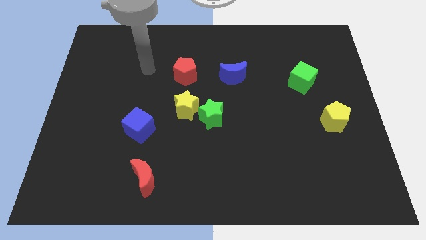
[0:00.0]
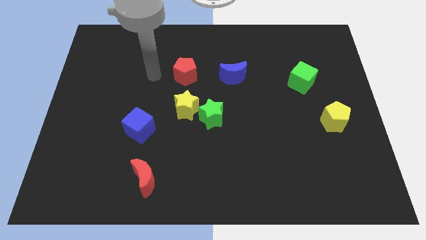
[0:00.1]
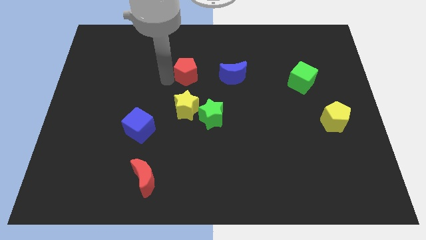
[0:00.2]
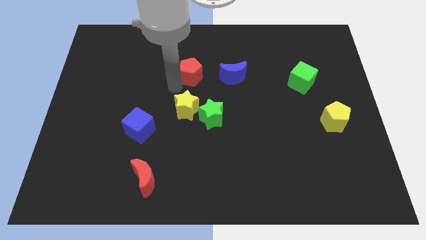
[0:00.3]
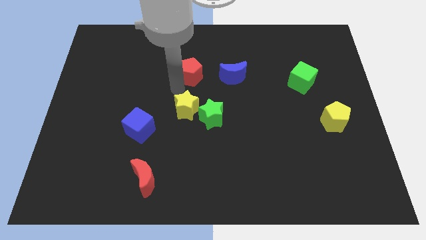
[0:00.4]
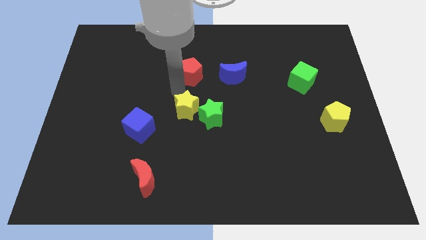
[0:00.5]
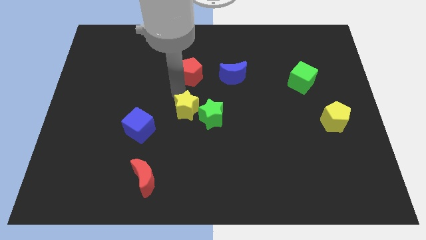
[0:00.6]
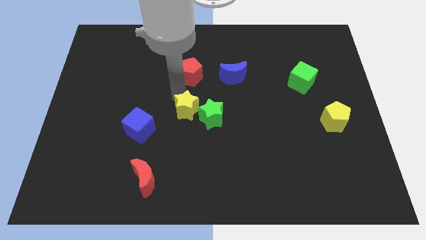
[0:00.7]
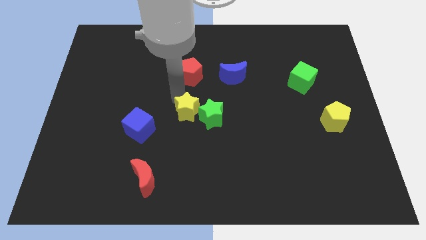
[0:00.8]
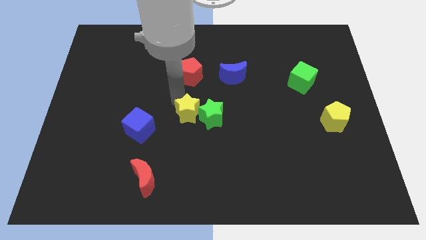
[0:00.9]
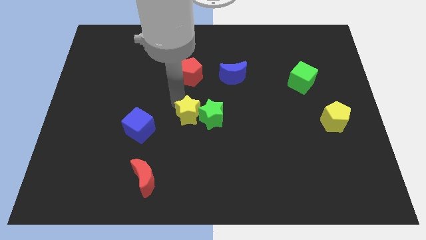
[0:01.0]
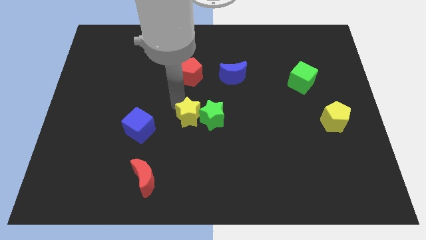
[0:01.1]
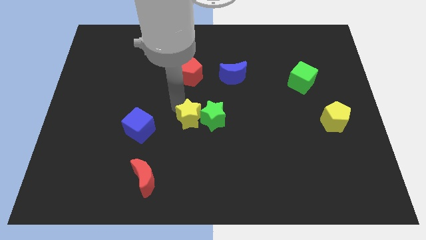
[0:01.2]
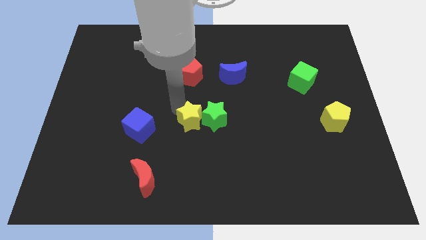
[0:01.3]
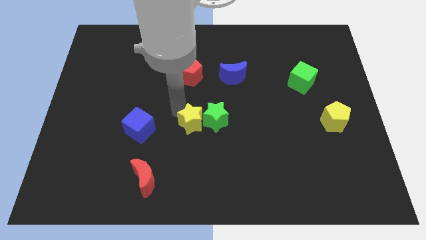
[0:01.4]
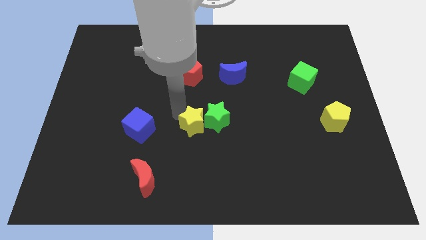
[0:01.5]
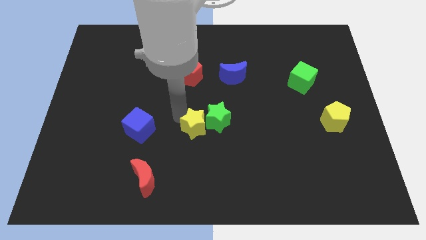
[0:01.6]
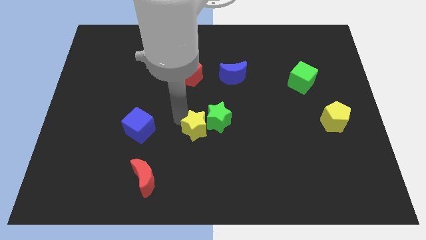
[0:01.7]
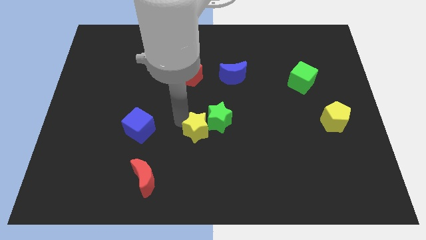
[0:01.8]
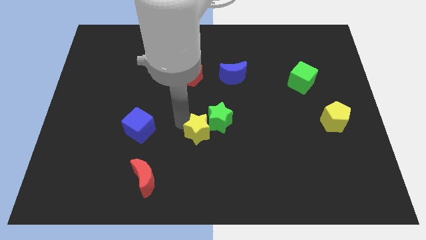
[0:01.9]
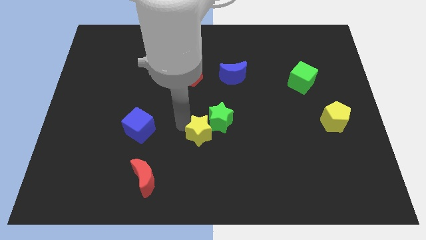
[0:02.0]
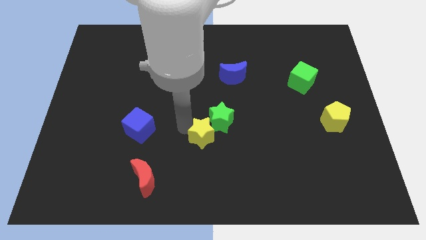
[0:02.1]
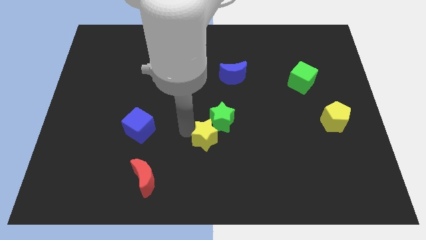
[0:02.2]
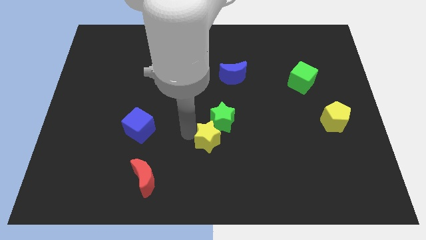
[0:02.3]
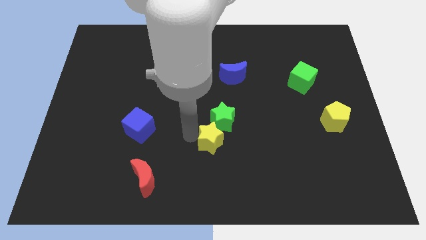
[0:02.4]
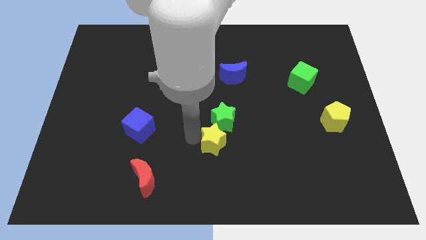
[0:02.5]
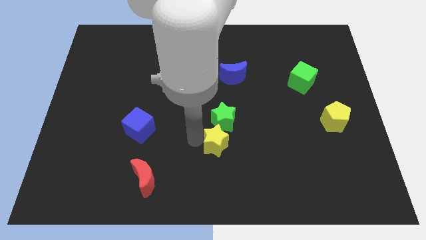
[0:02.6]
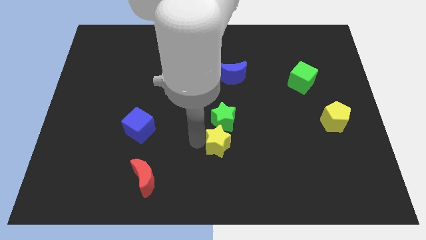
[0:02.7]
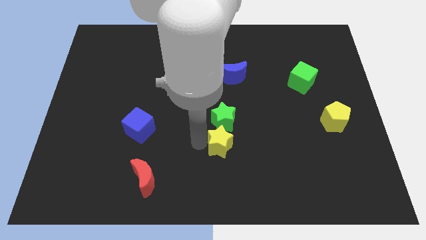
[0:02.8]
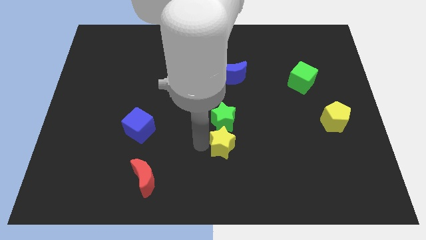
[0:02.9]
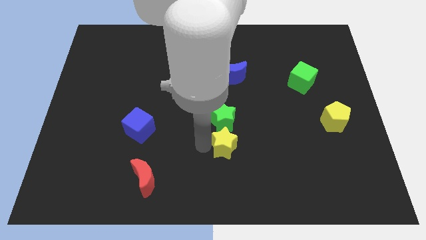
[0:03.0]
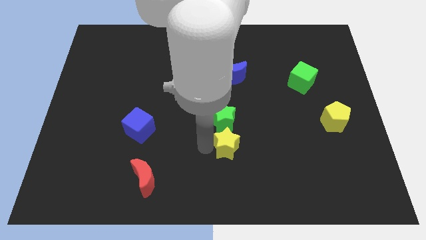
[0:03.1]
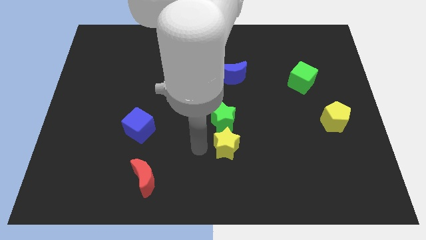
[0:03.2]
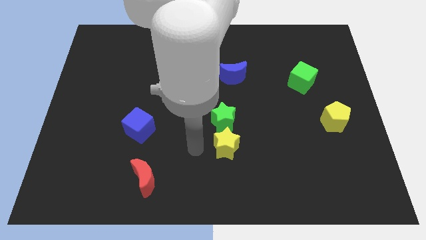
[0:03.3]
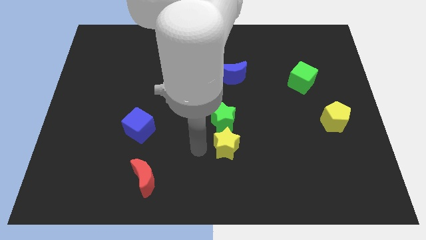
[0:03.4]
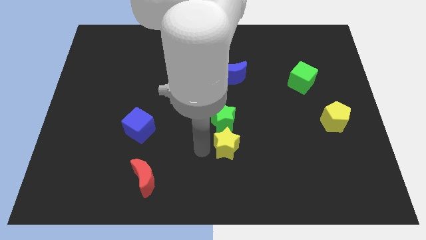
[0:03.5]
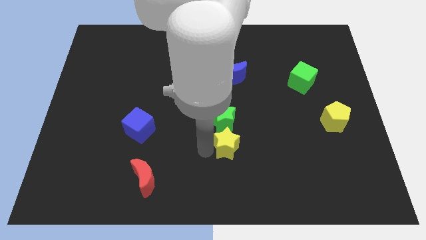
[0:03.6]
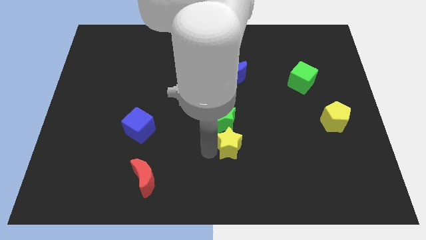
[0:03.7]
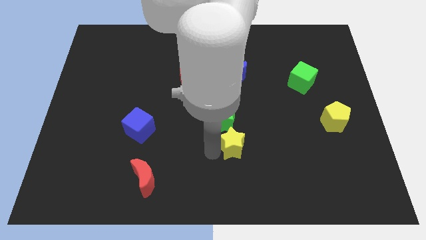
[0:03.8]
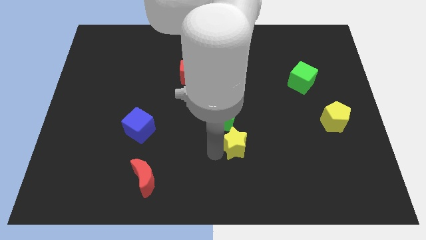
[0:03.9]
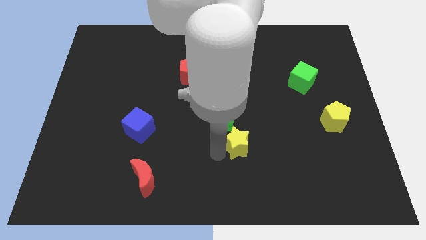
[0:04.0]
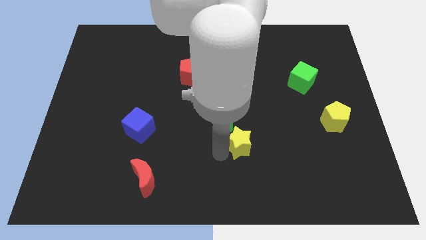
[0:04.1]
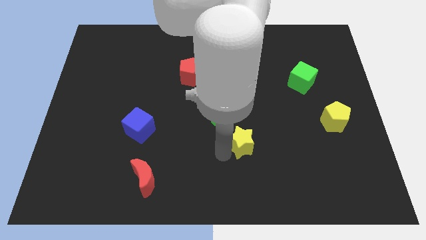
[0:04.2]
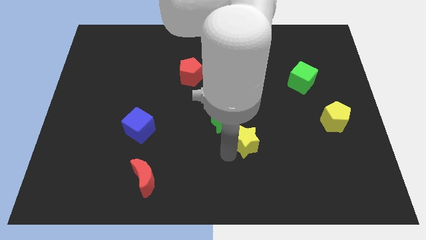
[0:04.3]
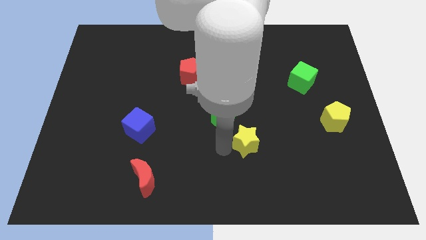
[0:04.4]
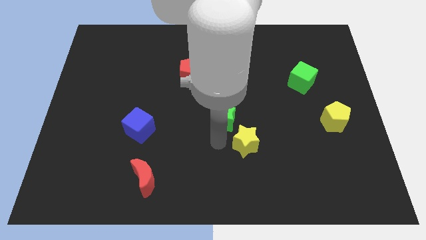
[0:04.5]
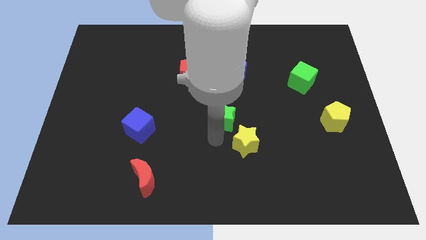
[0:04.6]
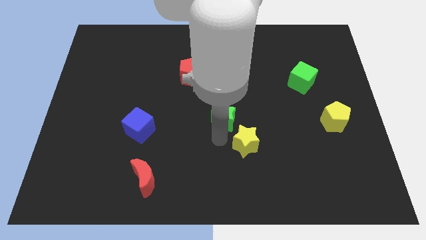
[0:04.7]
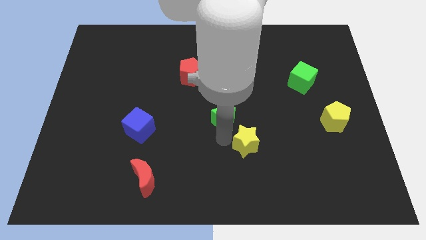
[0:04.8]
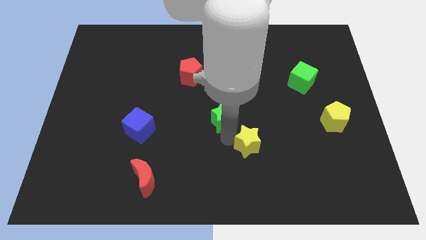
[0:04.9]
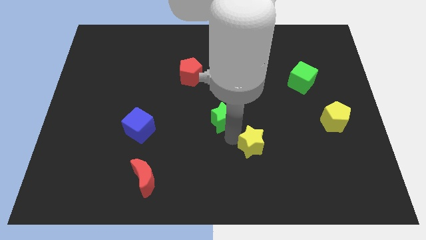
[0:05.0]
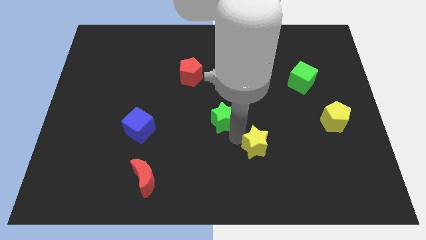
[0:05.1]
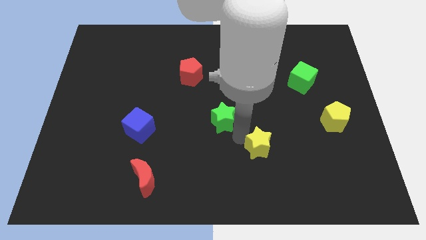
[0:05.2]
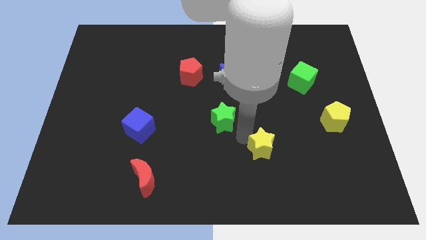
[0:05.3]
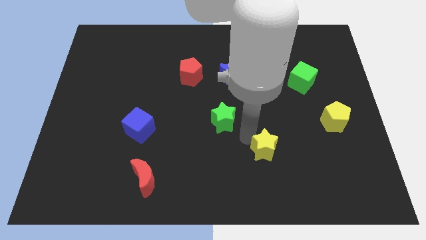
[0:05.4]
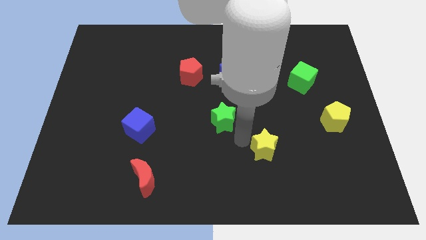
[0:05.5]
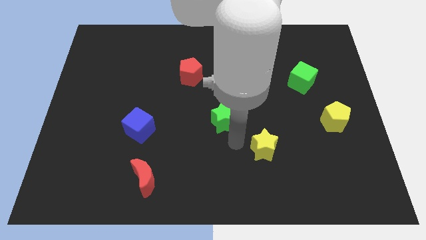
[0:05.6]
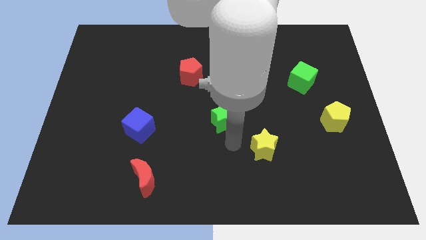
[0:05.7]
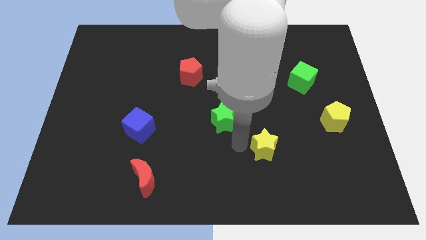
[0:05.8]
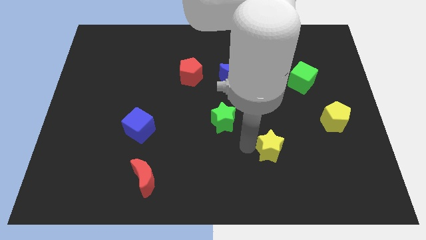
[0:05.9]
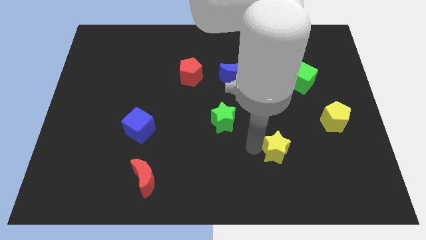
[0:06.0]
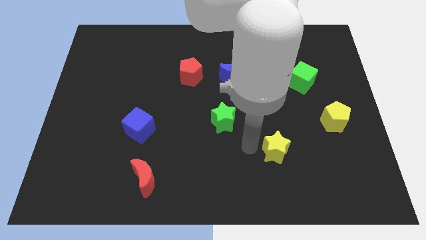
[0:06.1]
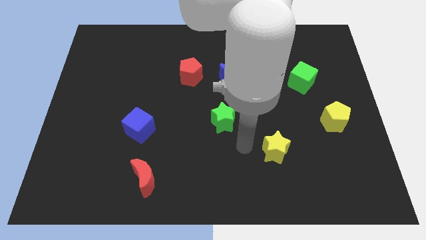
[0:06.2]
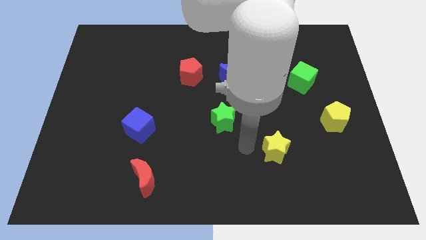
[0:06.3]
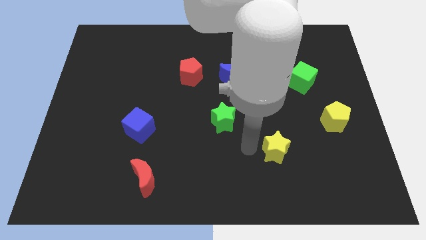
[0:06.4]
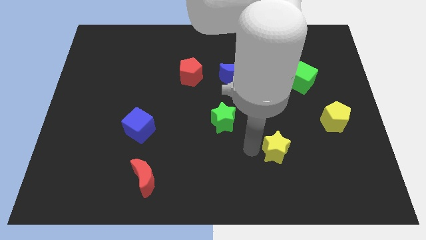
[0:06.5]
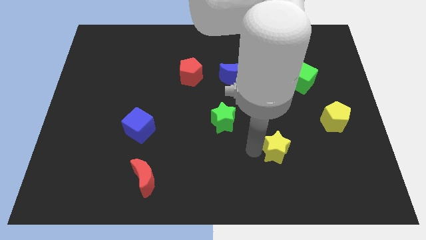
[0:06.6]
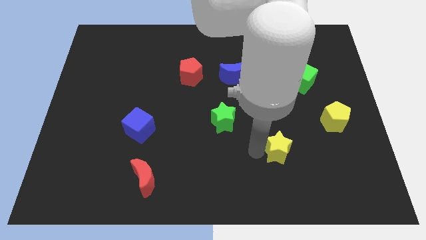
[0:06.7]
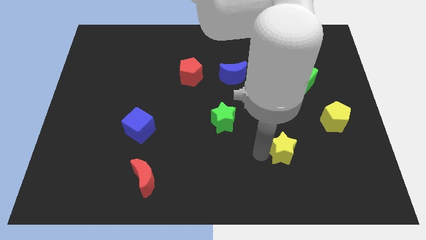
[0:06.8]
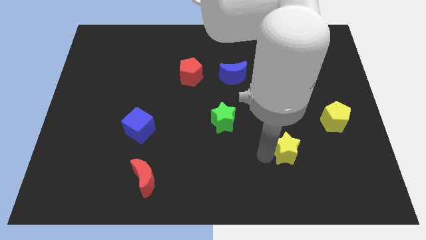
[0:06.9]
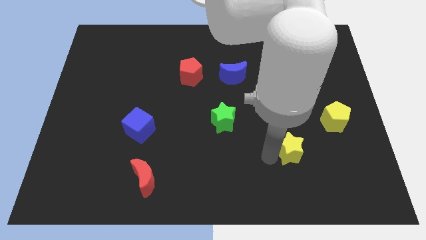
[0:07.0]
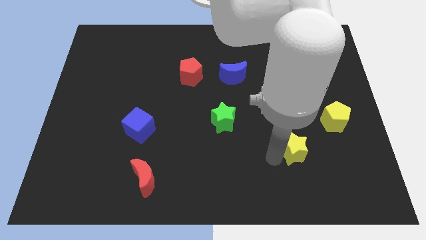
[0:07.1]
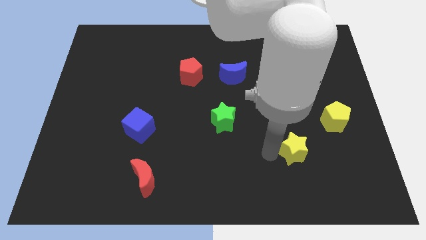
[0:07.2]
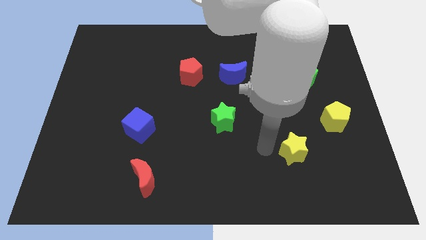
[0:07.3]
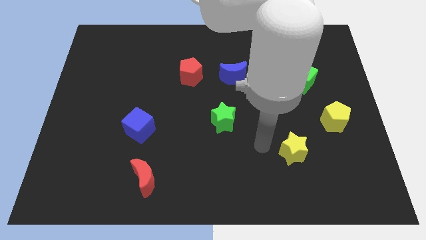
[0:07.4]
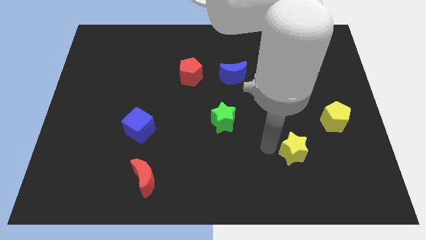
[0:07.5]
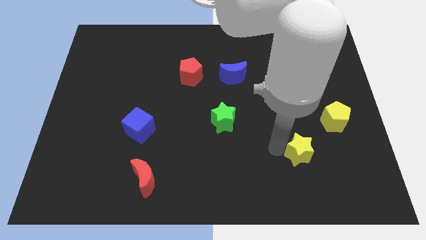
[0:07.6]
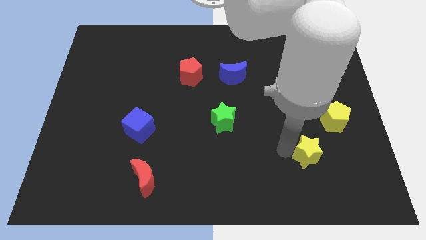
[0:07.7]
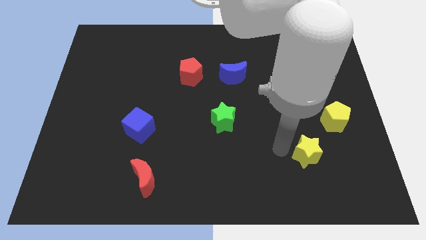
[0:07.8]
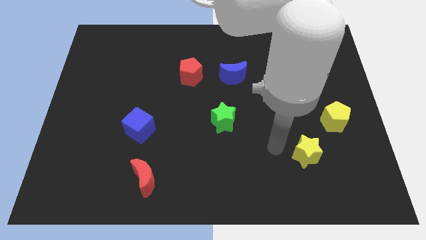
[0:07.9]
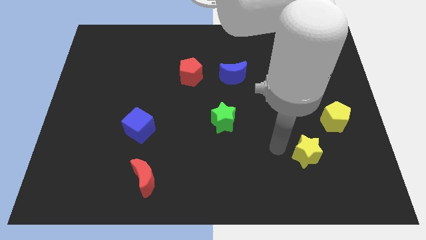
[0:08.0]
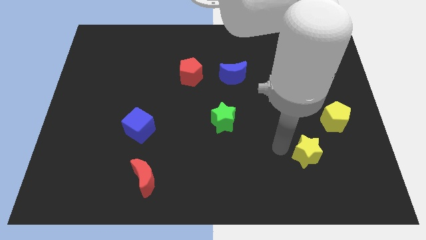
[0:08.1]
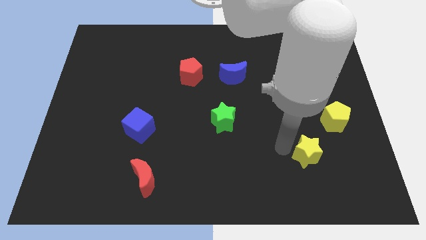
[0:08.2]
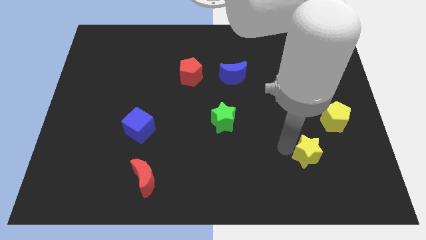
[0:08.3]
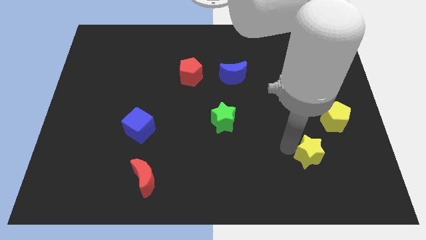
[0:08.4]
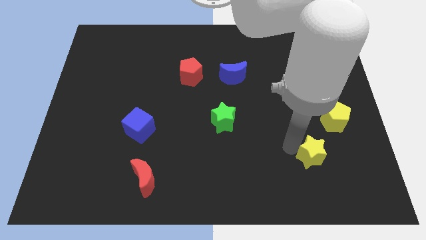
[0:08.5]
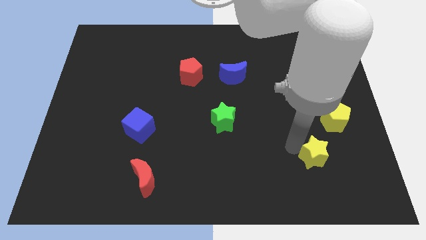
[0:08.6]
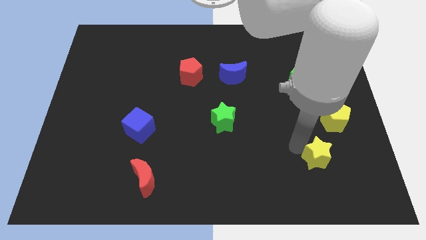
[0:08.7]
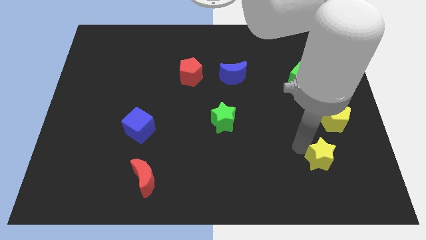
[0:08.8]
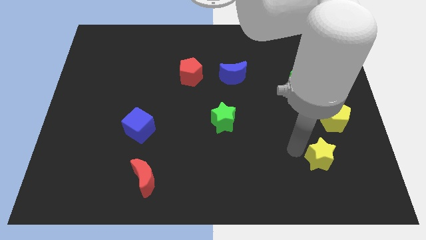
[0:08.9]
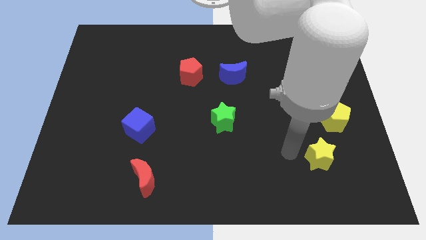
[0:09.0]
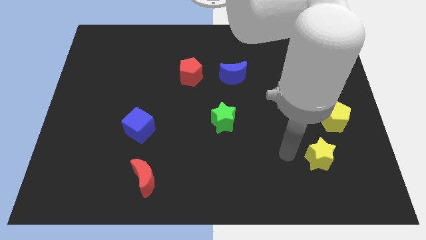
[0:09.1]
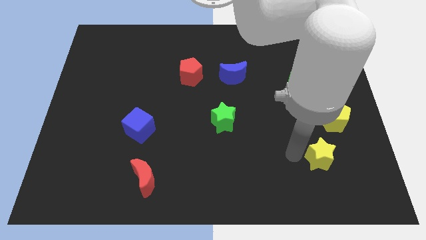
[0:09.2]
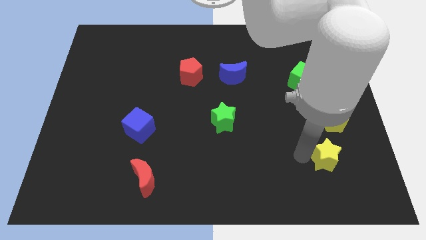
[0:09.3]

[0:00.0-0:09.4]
push the yellow star below the yellow pentagon
